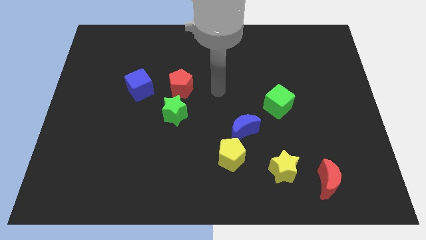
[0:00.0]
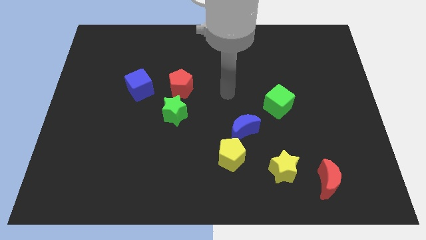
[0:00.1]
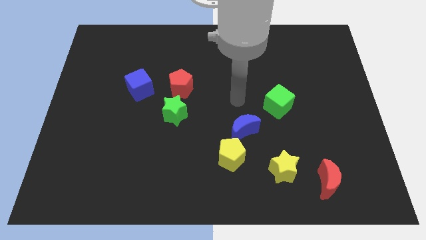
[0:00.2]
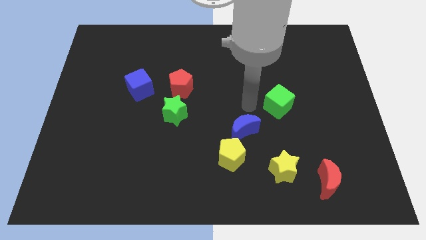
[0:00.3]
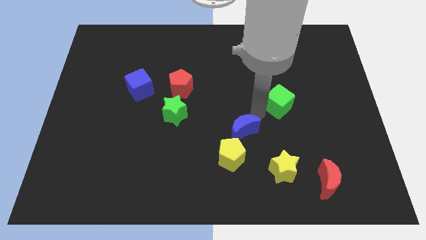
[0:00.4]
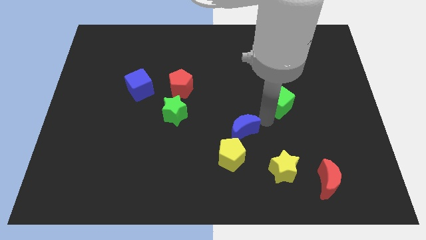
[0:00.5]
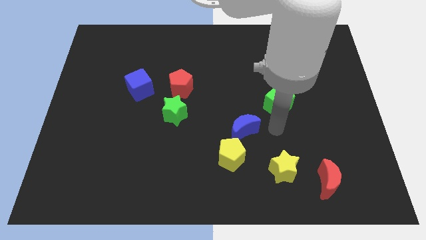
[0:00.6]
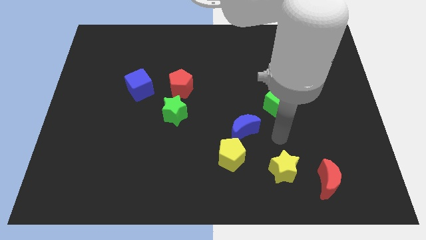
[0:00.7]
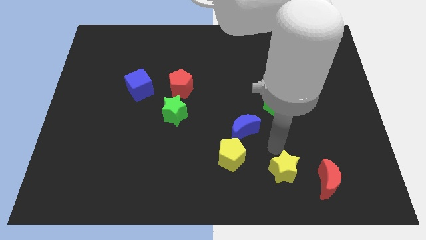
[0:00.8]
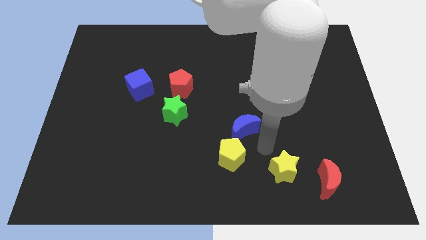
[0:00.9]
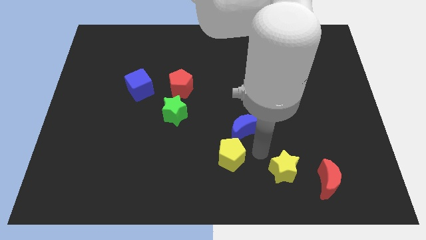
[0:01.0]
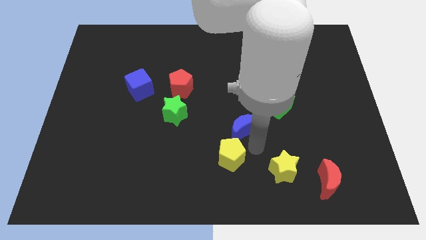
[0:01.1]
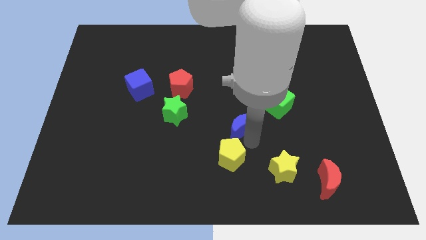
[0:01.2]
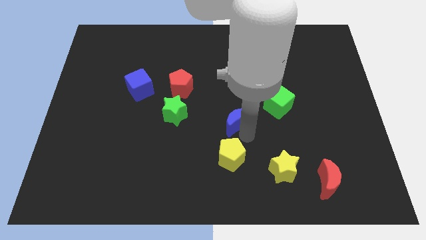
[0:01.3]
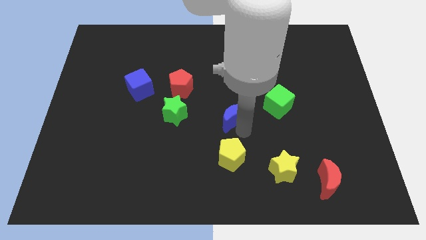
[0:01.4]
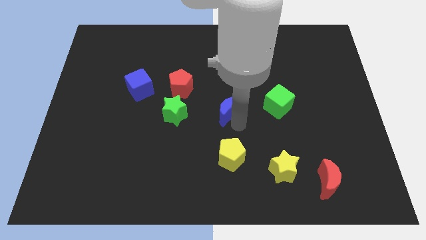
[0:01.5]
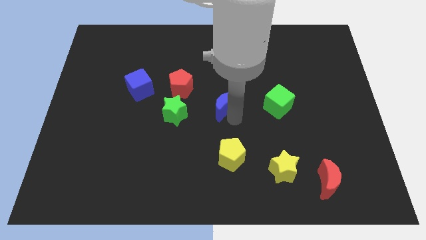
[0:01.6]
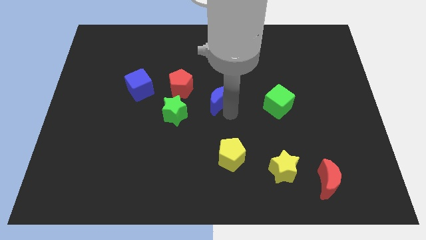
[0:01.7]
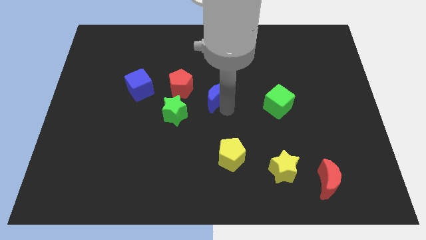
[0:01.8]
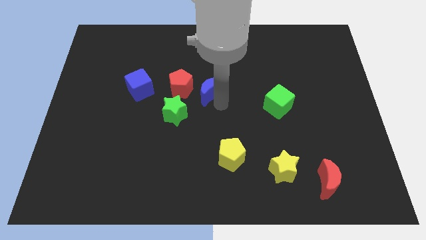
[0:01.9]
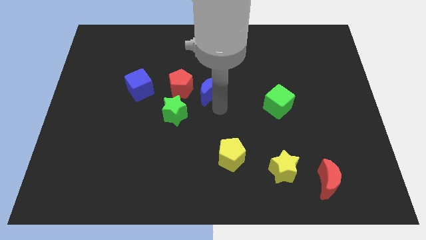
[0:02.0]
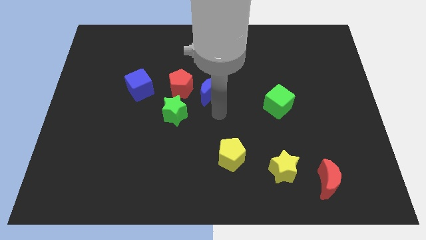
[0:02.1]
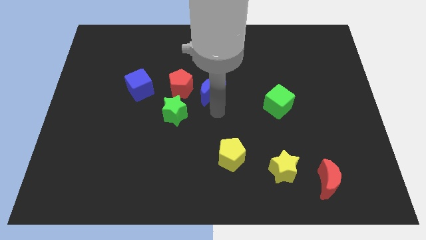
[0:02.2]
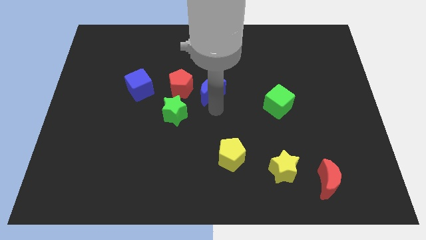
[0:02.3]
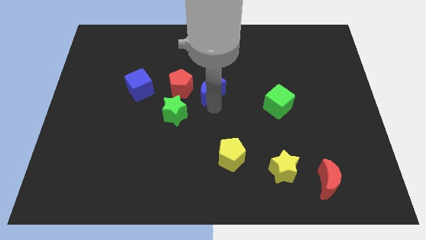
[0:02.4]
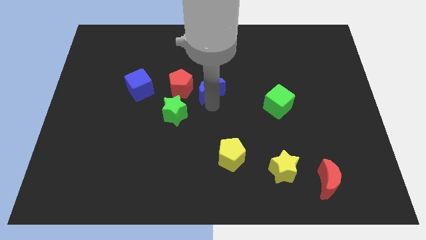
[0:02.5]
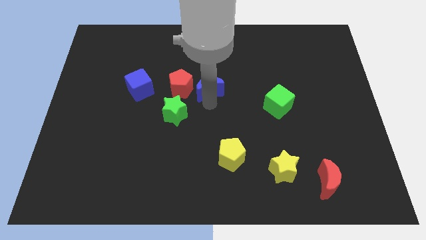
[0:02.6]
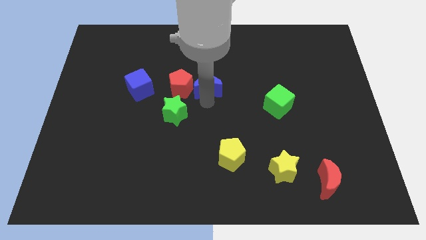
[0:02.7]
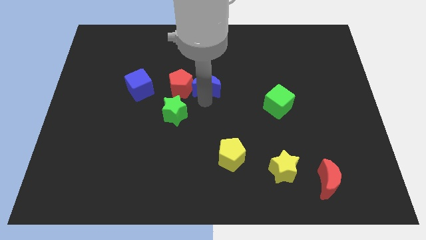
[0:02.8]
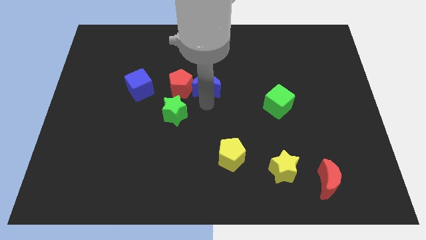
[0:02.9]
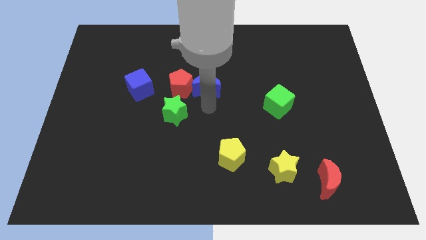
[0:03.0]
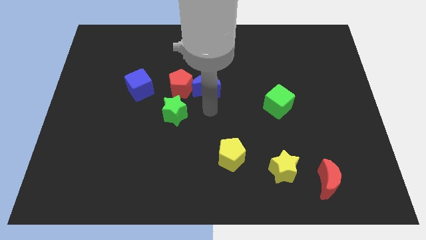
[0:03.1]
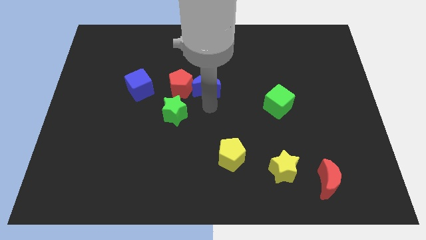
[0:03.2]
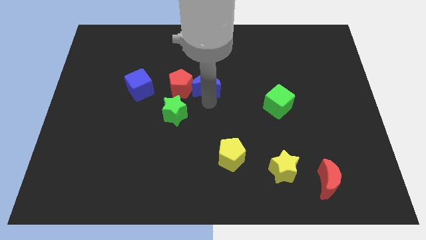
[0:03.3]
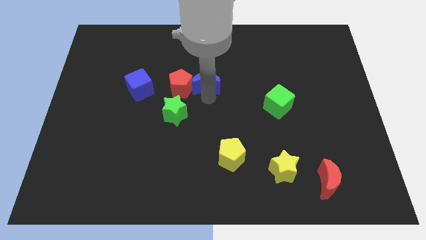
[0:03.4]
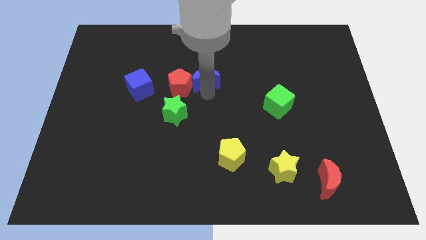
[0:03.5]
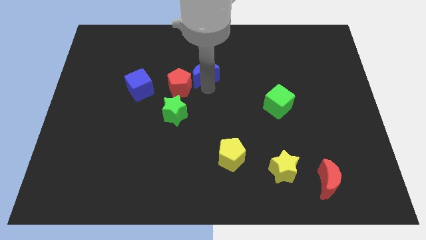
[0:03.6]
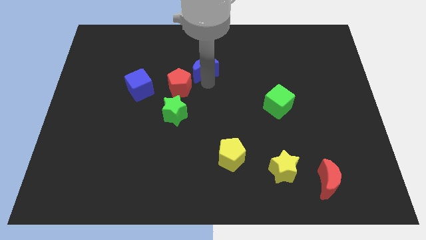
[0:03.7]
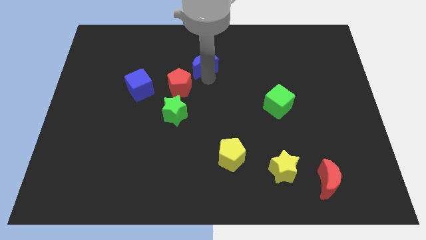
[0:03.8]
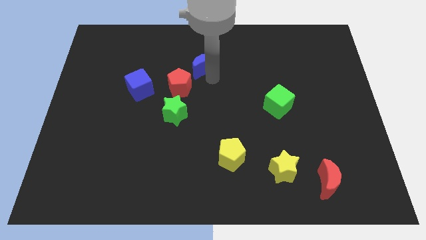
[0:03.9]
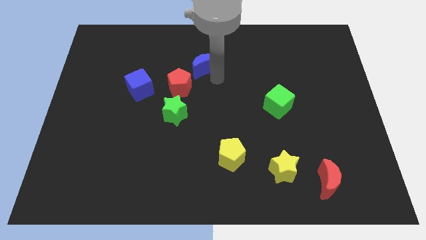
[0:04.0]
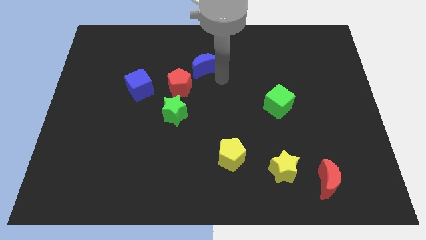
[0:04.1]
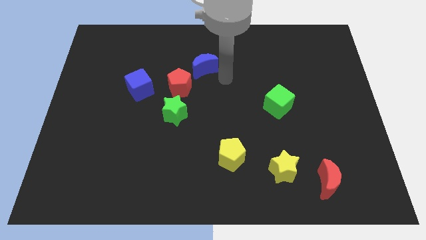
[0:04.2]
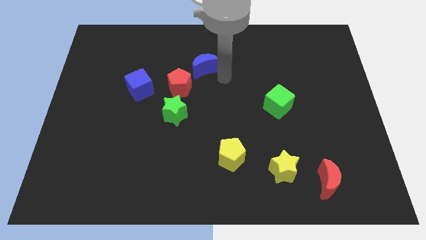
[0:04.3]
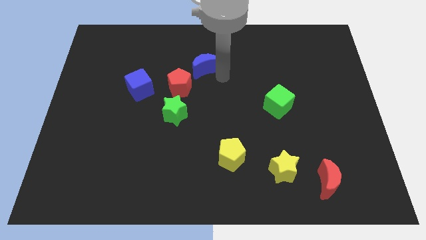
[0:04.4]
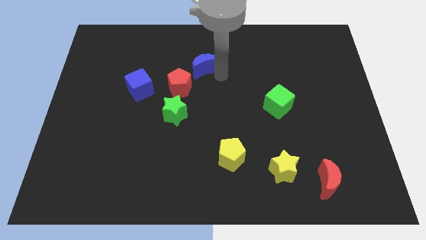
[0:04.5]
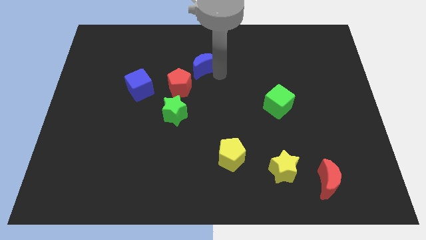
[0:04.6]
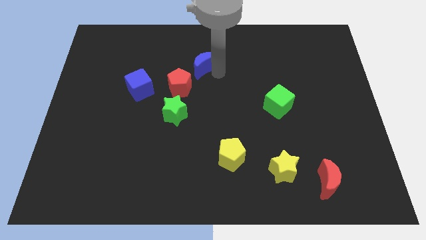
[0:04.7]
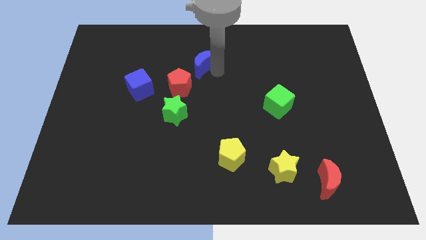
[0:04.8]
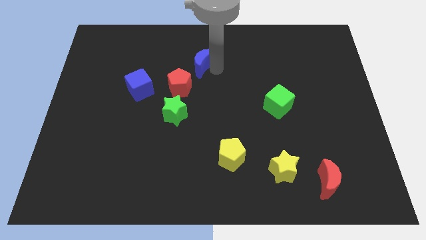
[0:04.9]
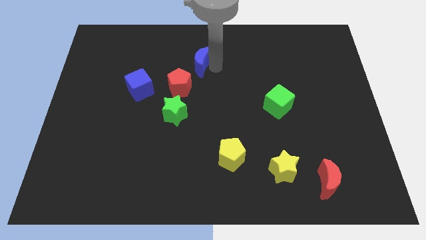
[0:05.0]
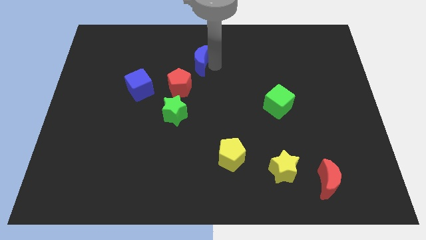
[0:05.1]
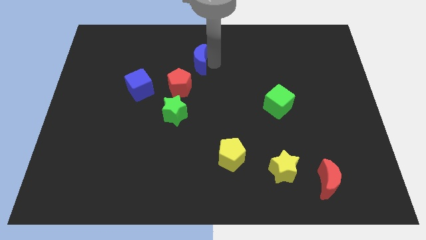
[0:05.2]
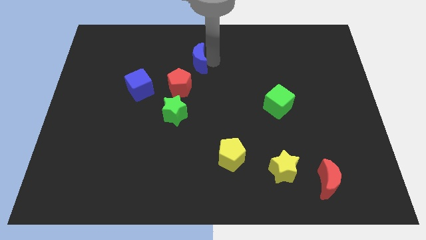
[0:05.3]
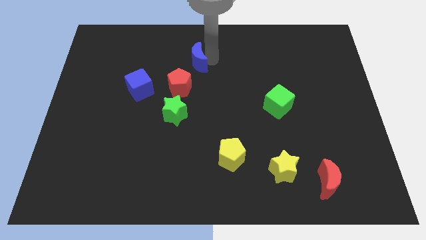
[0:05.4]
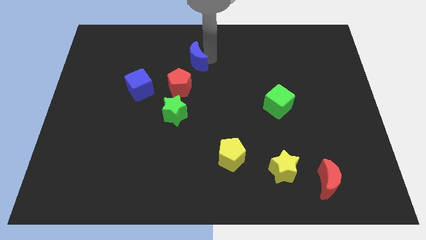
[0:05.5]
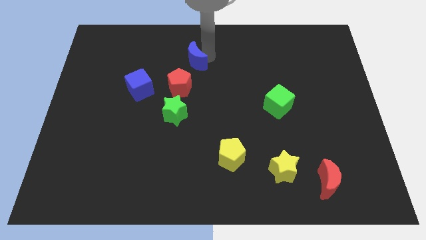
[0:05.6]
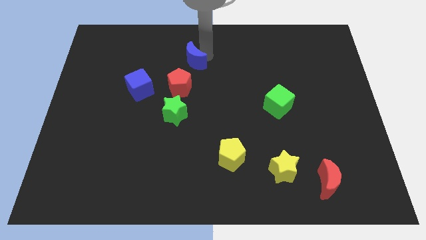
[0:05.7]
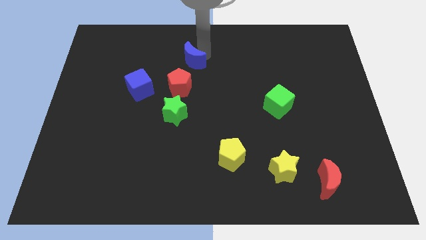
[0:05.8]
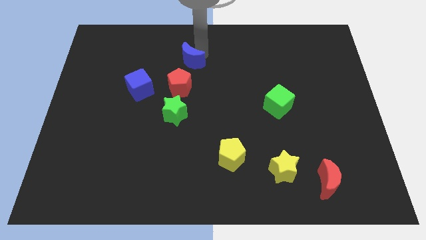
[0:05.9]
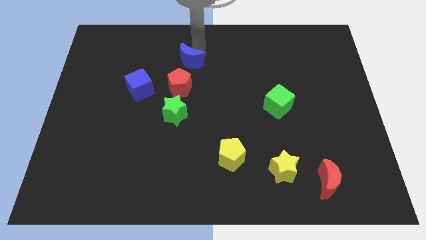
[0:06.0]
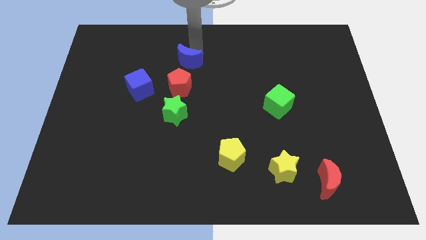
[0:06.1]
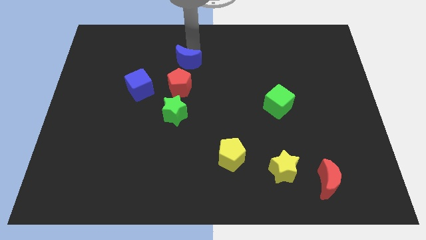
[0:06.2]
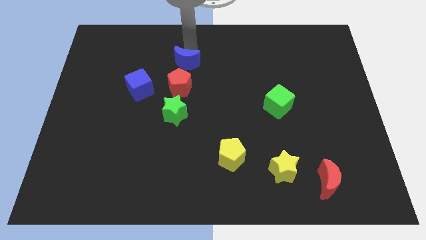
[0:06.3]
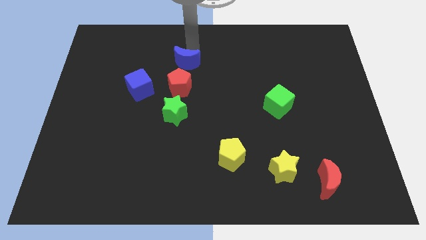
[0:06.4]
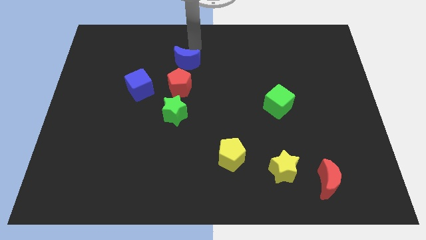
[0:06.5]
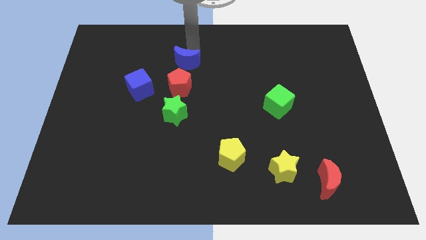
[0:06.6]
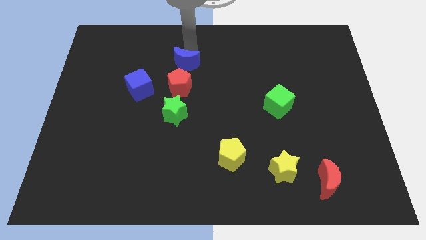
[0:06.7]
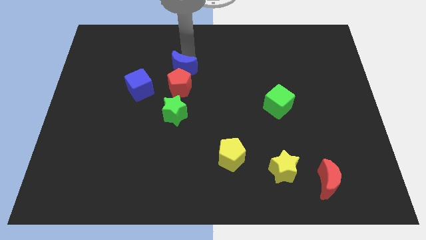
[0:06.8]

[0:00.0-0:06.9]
move the blue moon above the green star
